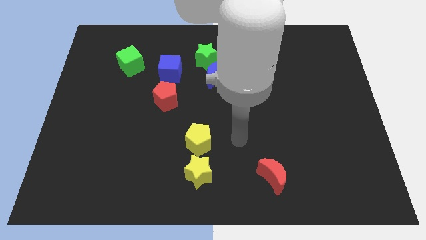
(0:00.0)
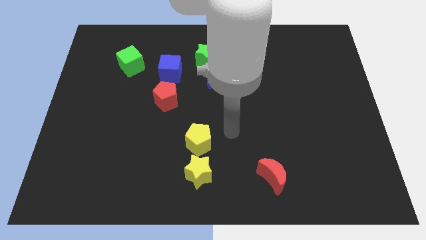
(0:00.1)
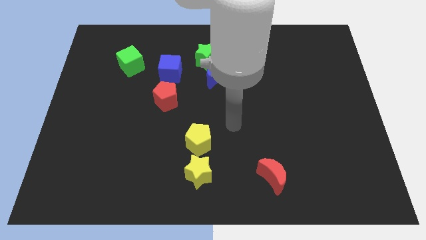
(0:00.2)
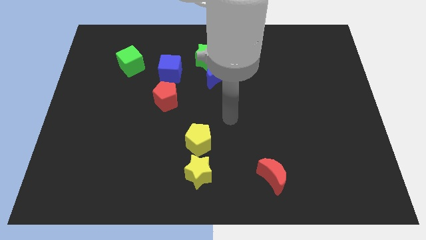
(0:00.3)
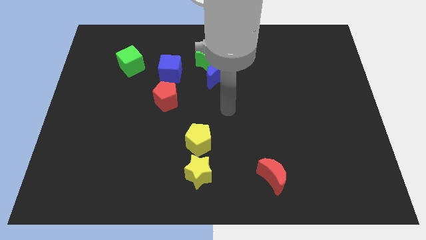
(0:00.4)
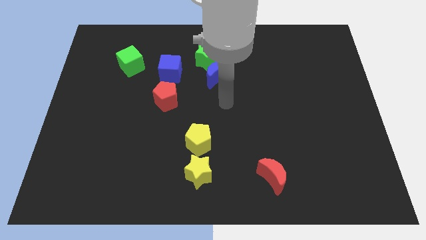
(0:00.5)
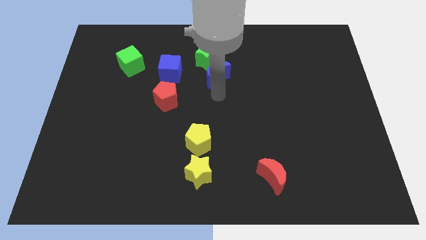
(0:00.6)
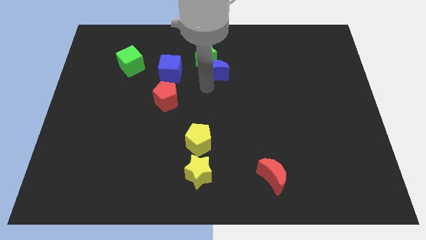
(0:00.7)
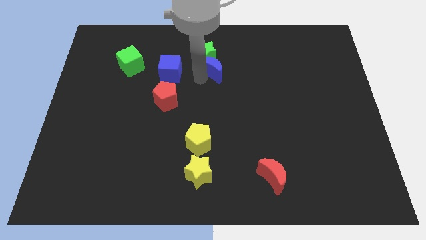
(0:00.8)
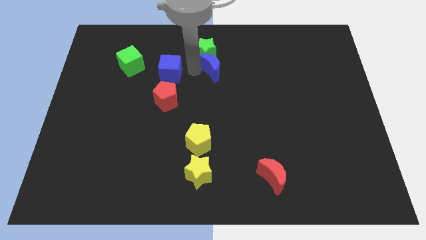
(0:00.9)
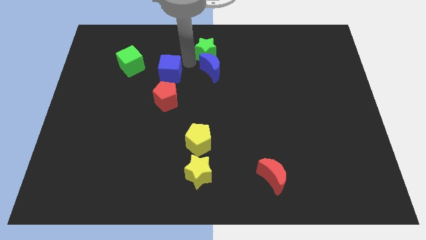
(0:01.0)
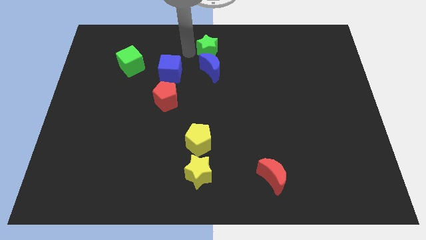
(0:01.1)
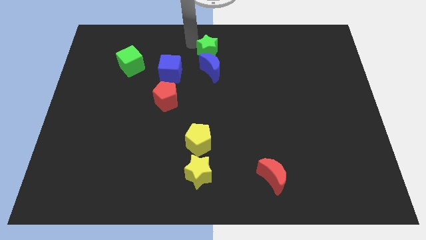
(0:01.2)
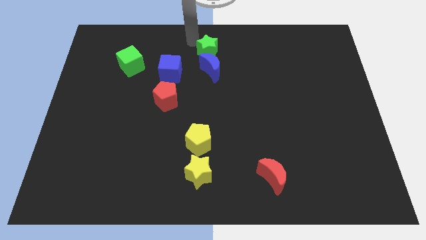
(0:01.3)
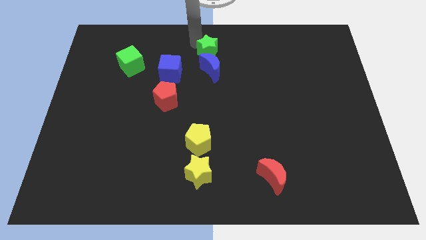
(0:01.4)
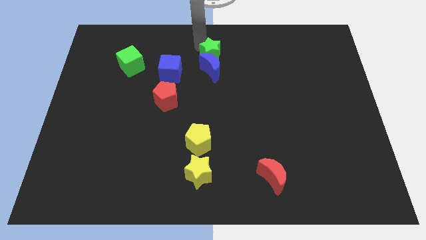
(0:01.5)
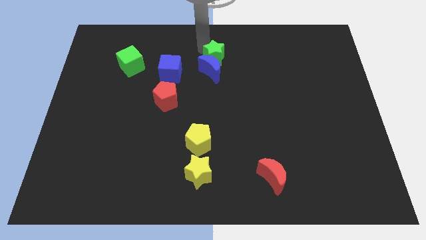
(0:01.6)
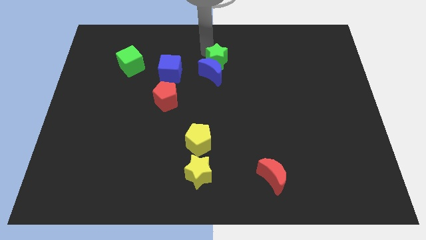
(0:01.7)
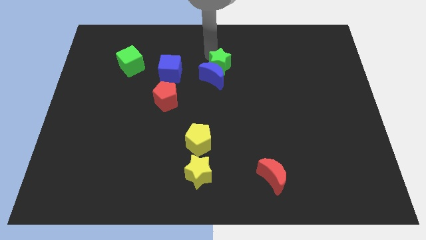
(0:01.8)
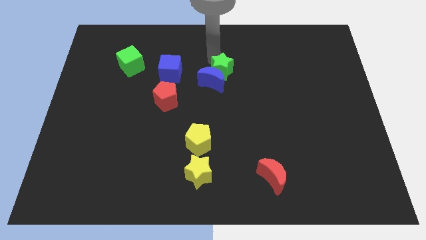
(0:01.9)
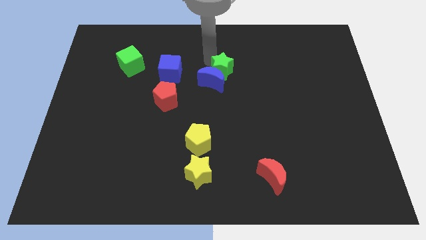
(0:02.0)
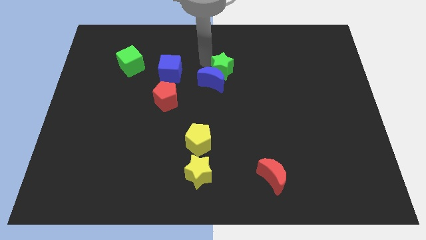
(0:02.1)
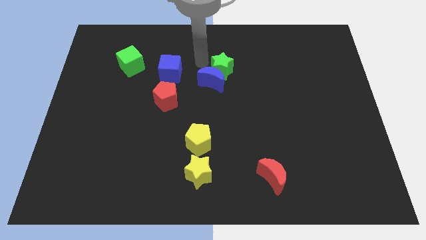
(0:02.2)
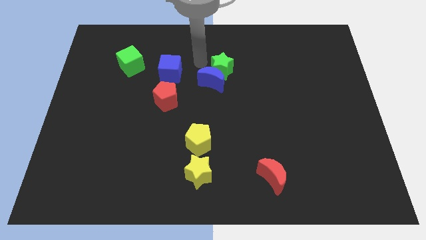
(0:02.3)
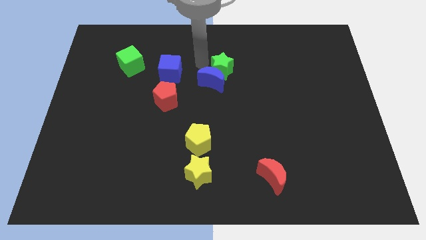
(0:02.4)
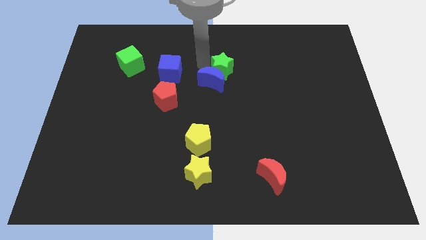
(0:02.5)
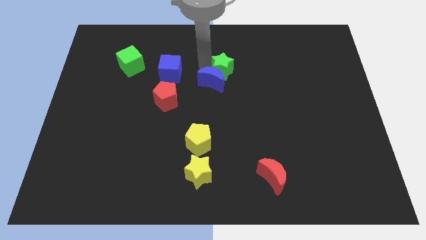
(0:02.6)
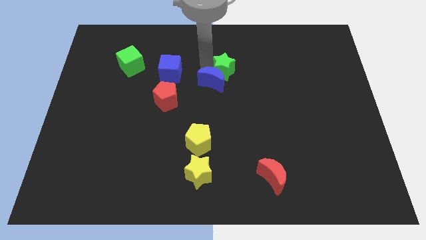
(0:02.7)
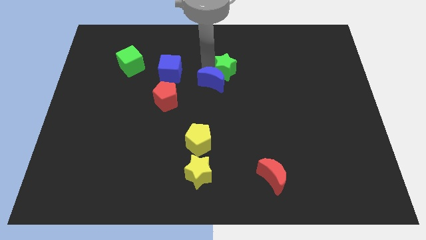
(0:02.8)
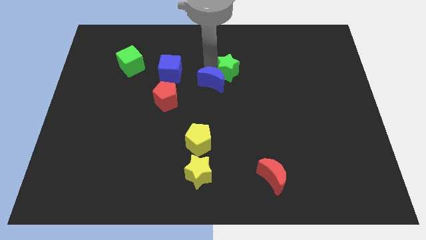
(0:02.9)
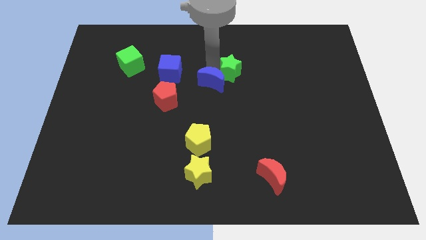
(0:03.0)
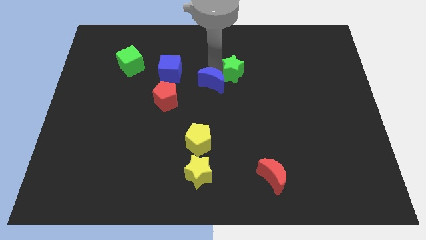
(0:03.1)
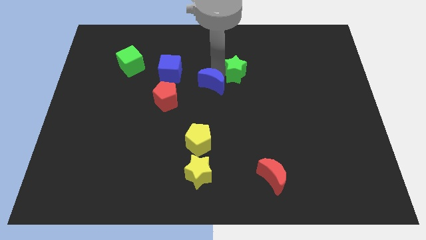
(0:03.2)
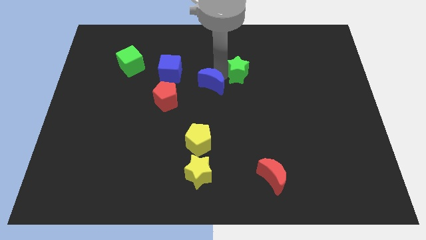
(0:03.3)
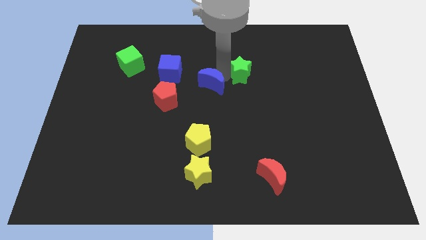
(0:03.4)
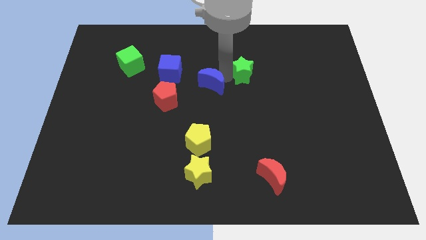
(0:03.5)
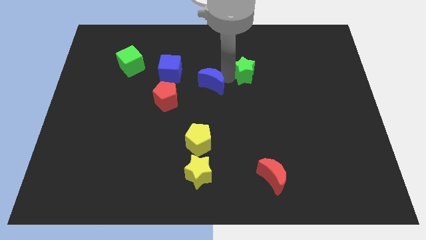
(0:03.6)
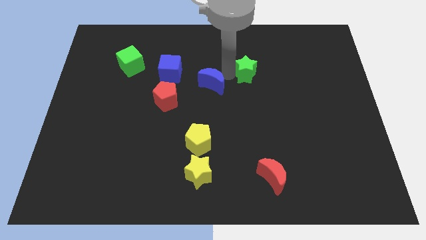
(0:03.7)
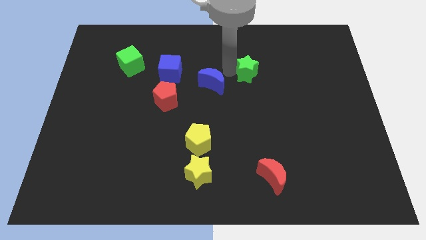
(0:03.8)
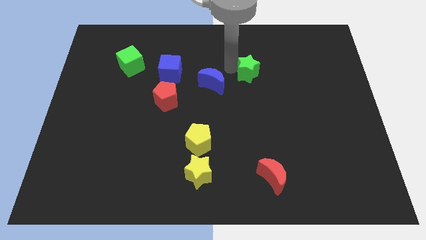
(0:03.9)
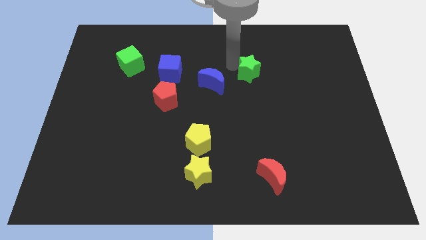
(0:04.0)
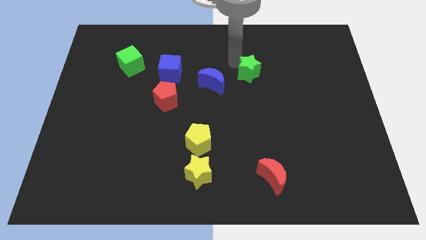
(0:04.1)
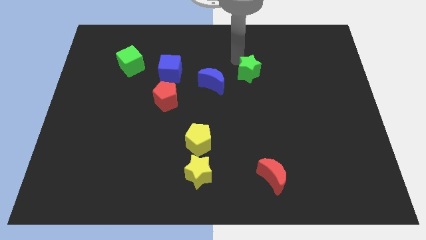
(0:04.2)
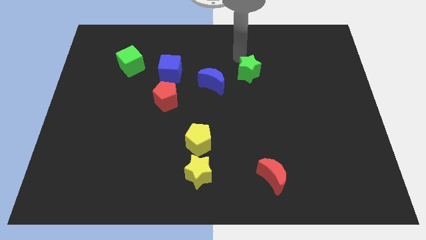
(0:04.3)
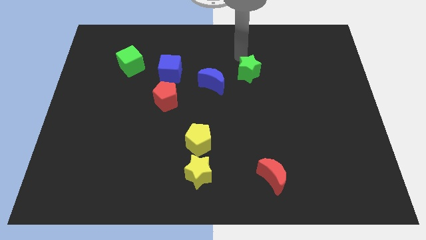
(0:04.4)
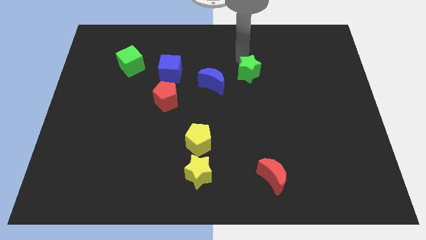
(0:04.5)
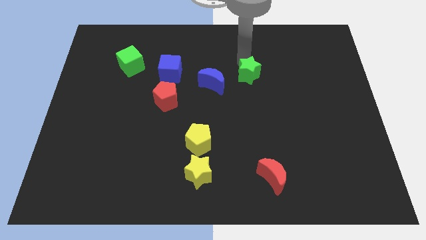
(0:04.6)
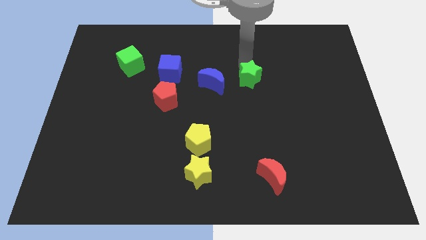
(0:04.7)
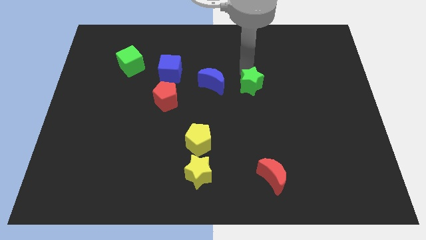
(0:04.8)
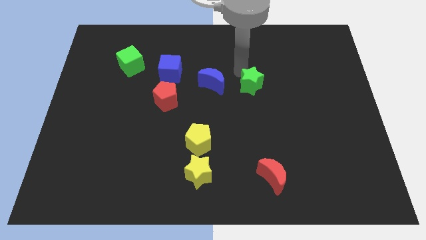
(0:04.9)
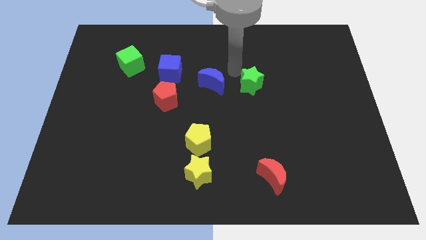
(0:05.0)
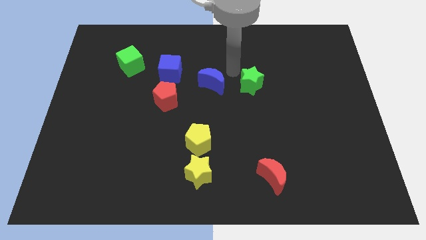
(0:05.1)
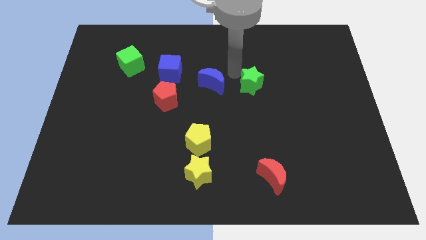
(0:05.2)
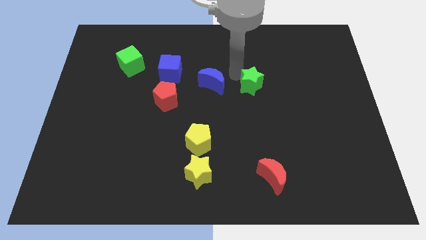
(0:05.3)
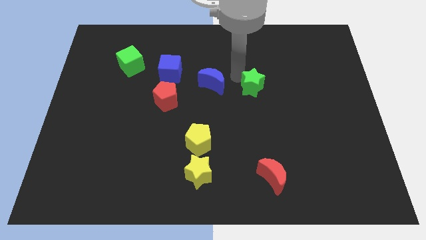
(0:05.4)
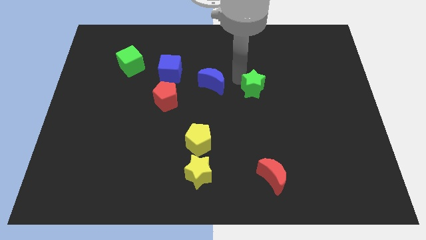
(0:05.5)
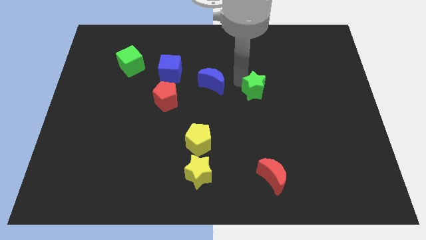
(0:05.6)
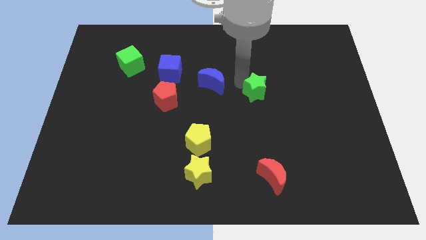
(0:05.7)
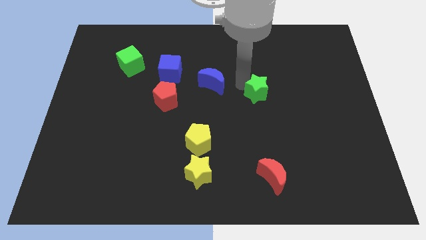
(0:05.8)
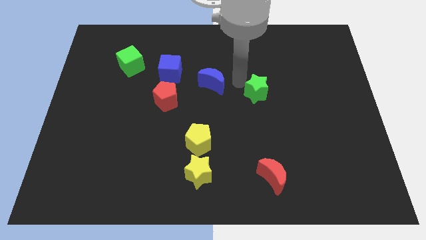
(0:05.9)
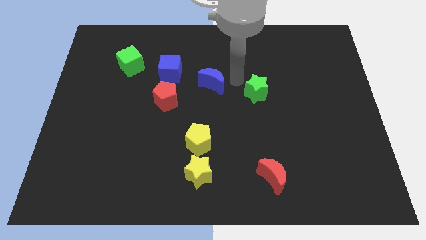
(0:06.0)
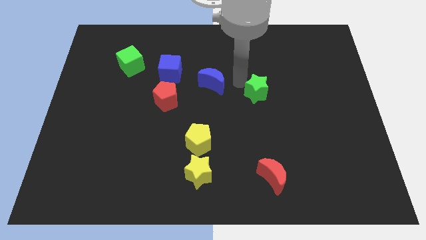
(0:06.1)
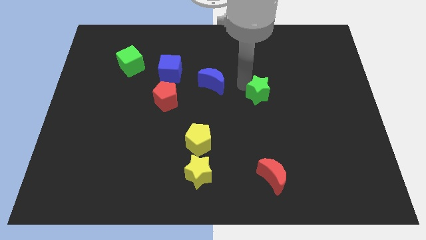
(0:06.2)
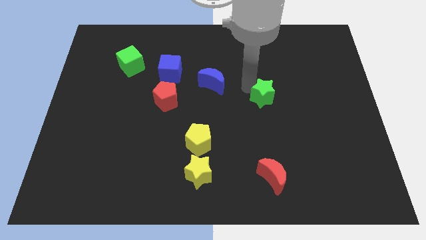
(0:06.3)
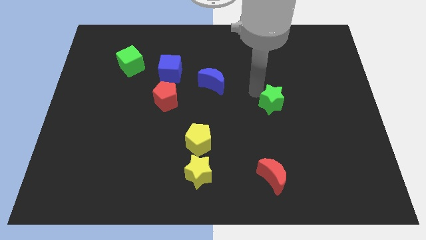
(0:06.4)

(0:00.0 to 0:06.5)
move the green star diagonally downwards and right

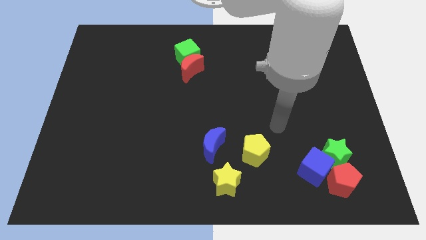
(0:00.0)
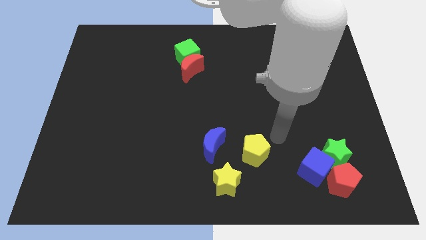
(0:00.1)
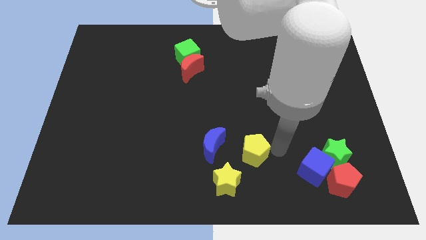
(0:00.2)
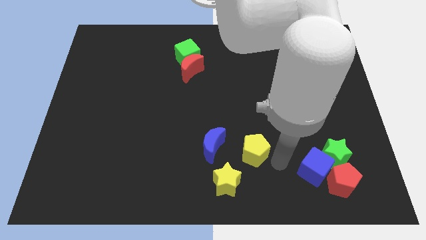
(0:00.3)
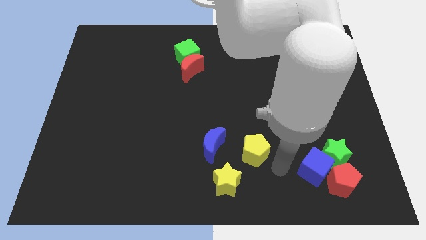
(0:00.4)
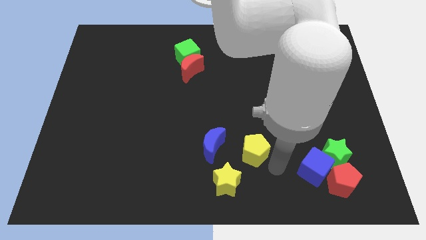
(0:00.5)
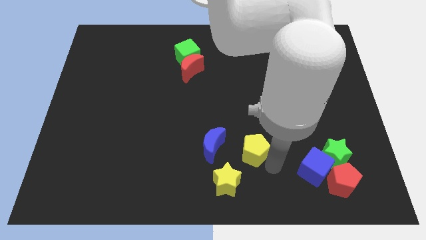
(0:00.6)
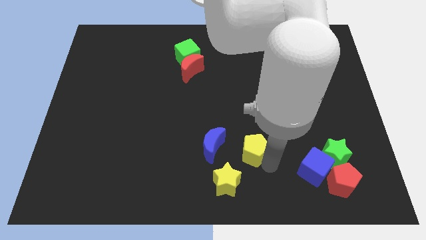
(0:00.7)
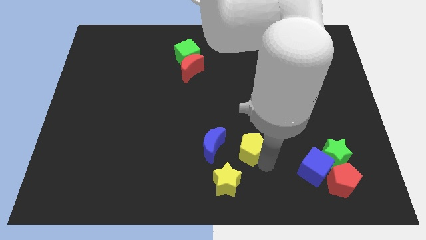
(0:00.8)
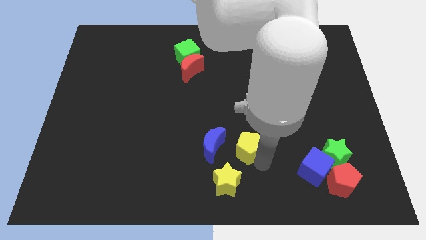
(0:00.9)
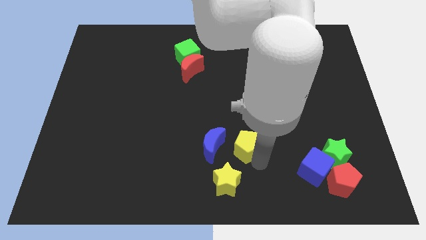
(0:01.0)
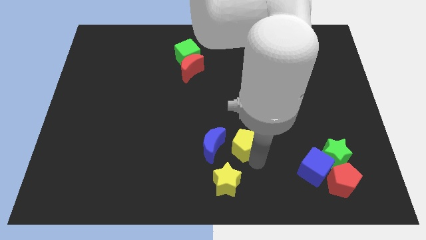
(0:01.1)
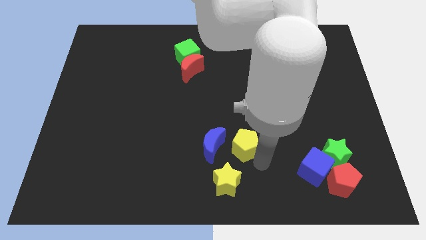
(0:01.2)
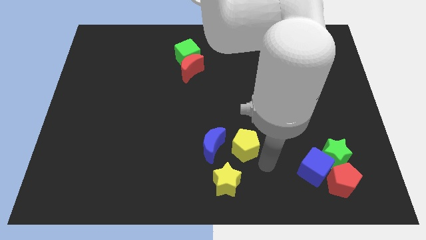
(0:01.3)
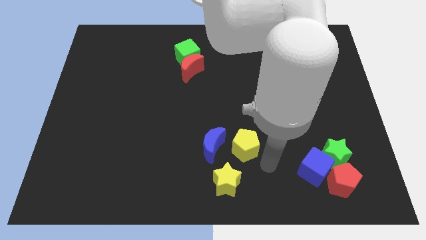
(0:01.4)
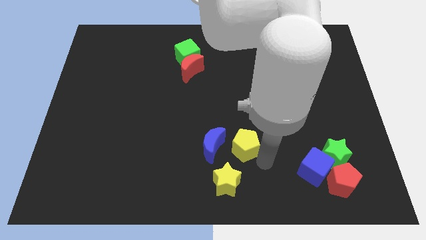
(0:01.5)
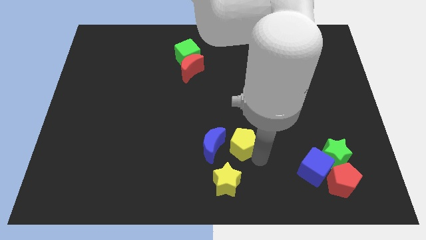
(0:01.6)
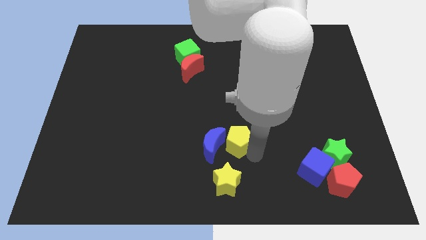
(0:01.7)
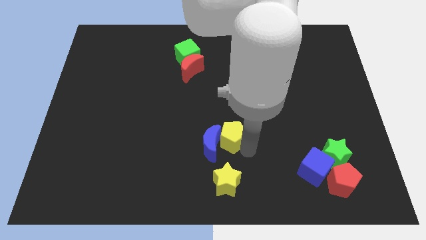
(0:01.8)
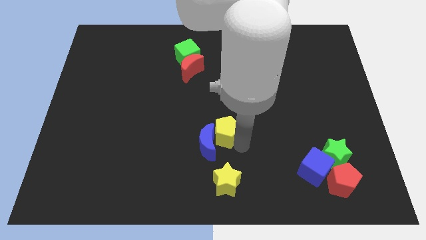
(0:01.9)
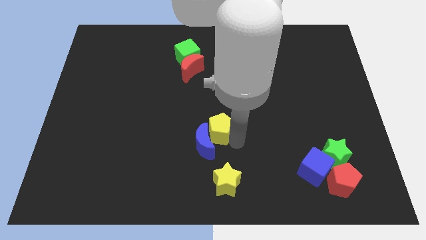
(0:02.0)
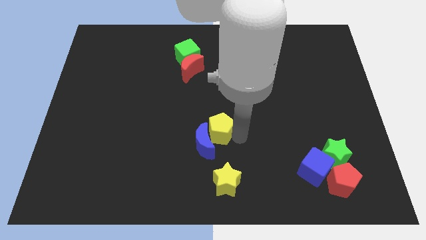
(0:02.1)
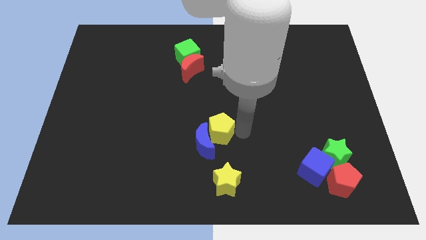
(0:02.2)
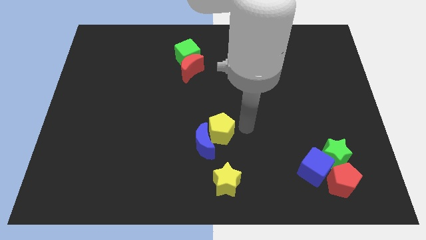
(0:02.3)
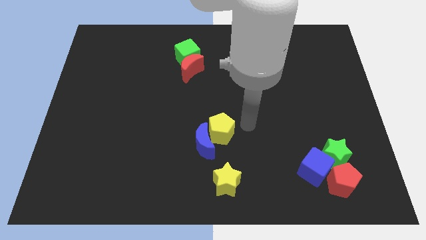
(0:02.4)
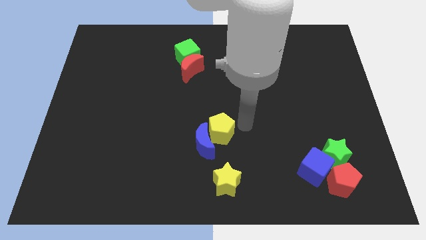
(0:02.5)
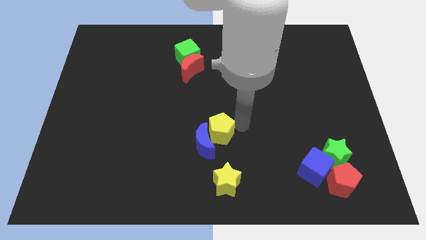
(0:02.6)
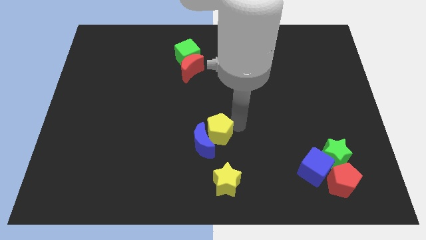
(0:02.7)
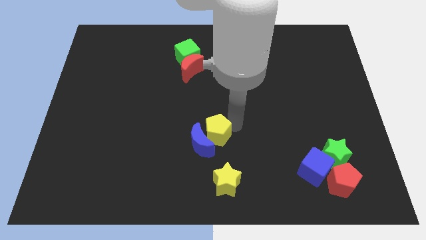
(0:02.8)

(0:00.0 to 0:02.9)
slide the yellow pentagon left a little
